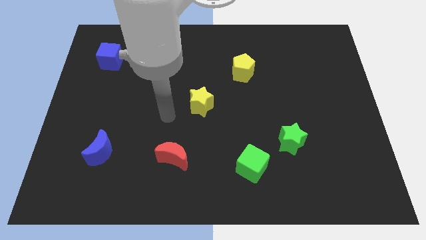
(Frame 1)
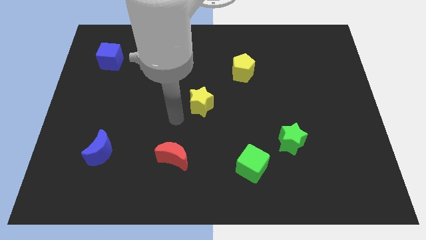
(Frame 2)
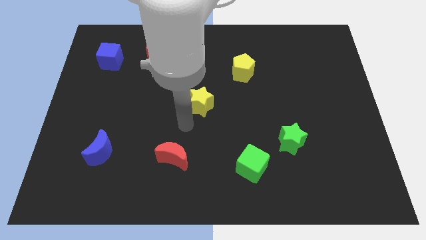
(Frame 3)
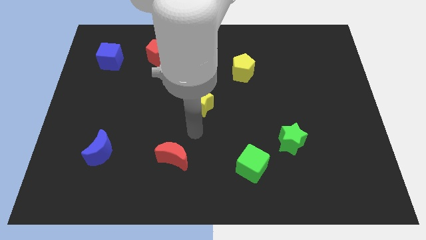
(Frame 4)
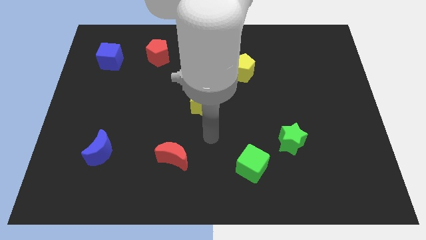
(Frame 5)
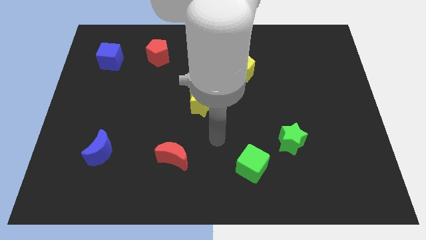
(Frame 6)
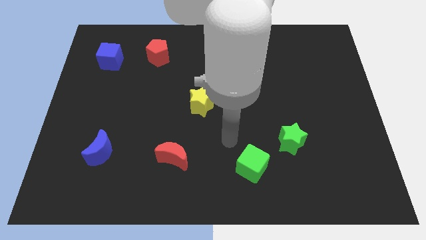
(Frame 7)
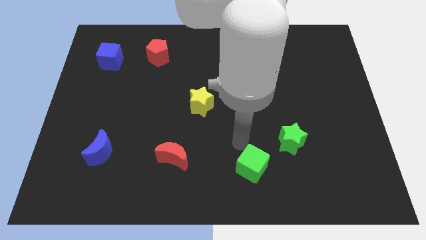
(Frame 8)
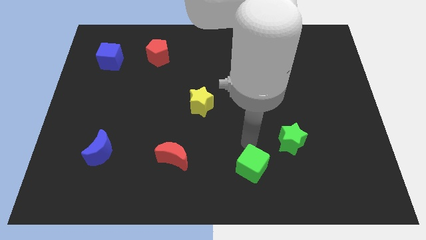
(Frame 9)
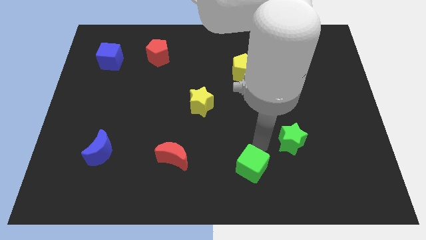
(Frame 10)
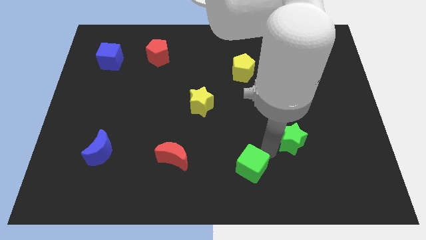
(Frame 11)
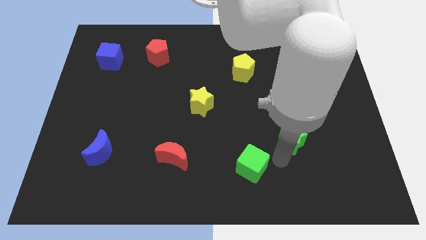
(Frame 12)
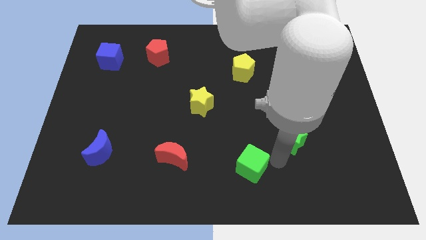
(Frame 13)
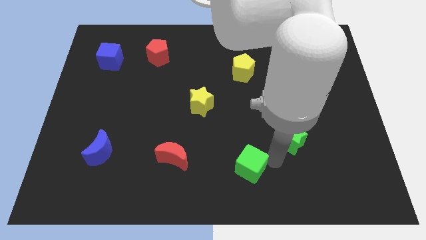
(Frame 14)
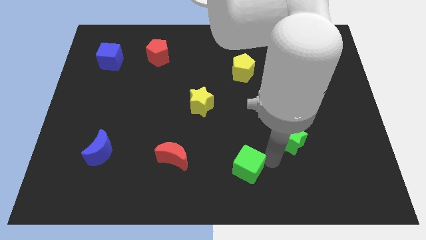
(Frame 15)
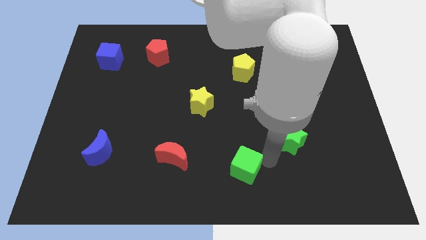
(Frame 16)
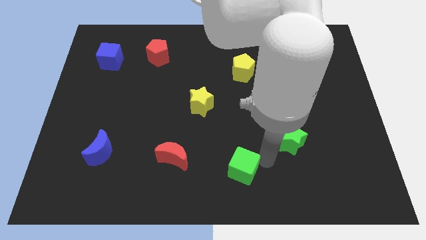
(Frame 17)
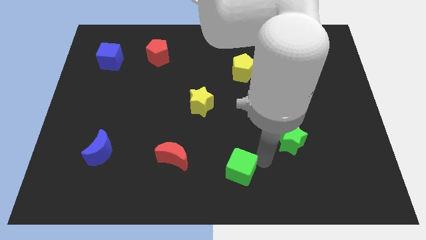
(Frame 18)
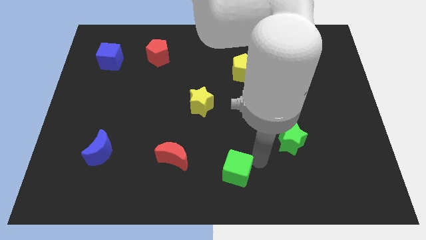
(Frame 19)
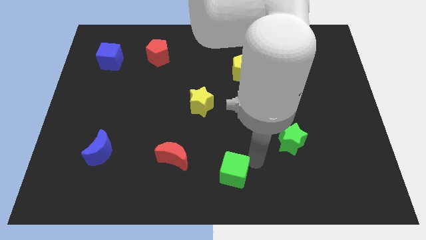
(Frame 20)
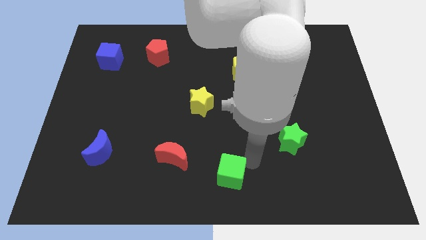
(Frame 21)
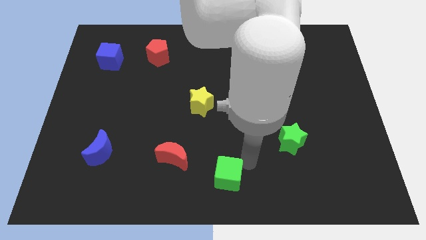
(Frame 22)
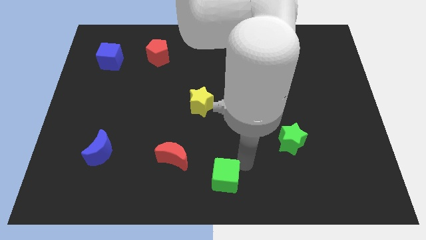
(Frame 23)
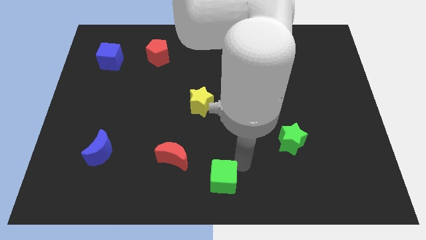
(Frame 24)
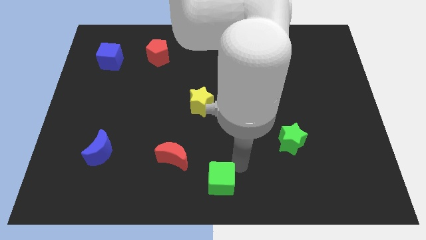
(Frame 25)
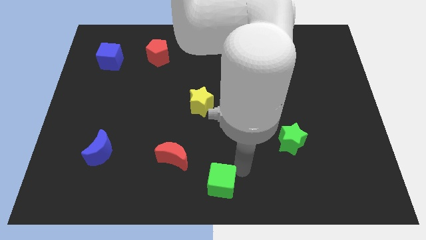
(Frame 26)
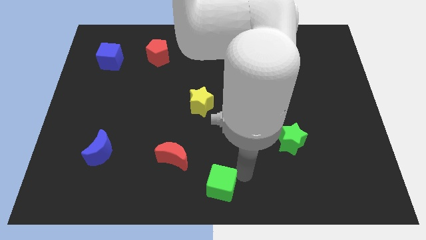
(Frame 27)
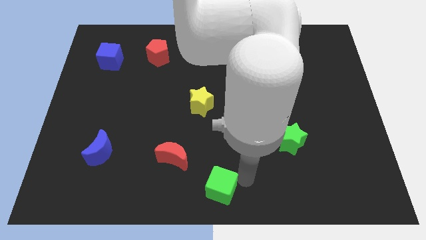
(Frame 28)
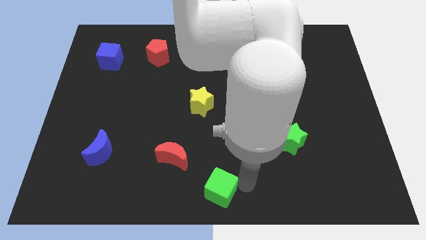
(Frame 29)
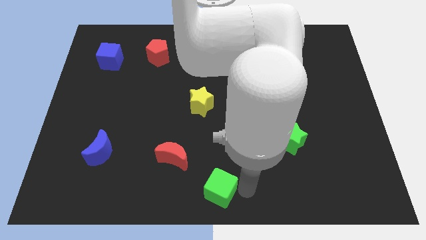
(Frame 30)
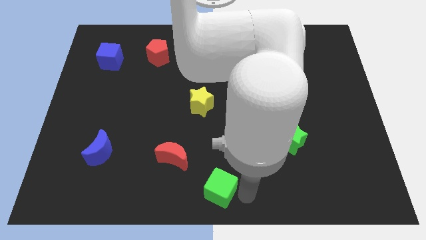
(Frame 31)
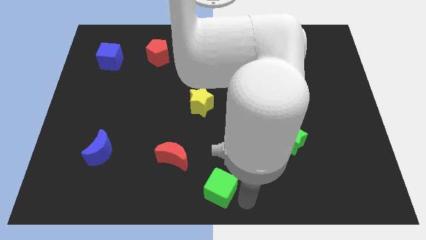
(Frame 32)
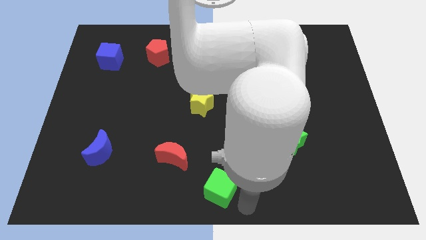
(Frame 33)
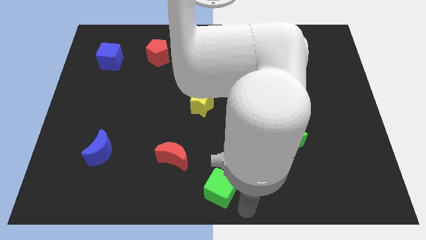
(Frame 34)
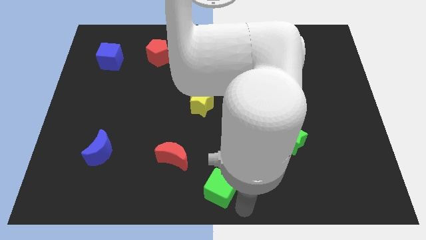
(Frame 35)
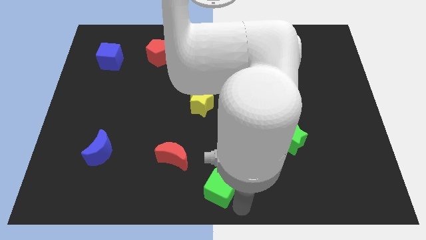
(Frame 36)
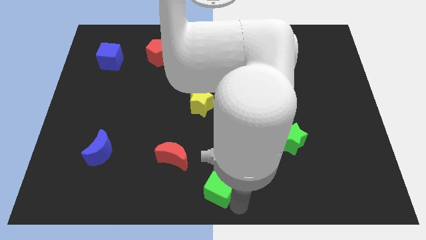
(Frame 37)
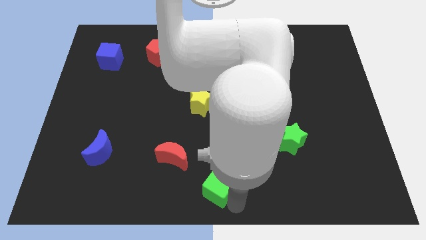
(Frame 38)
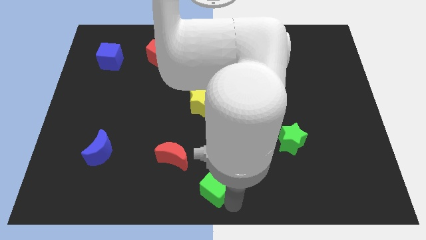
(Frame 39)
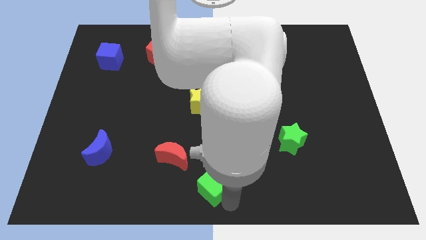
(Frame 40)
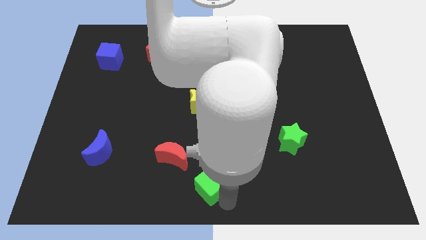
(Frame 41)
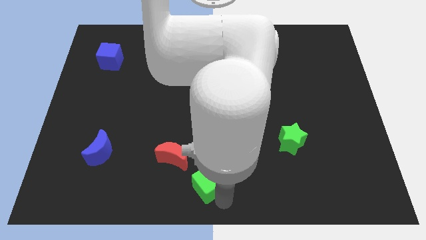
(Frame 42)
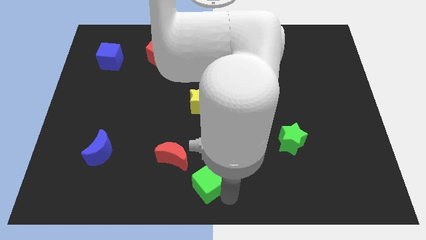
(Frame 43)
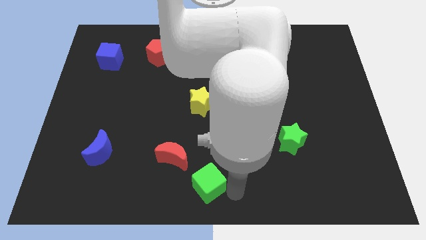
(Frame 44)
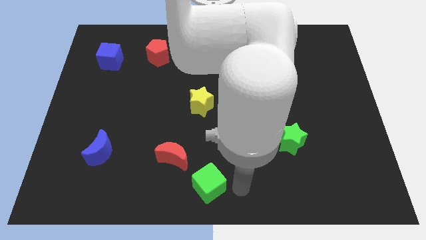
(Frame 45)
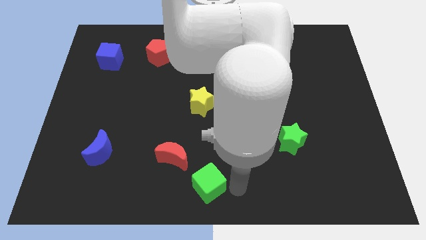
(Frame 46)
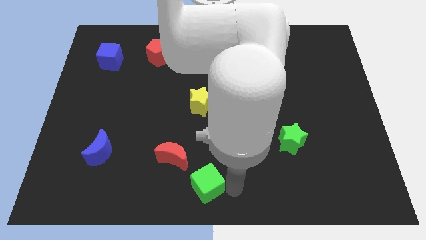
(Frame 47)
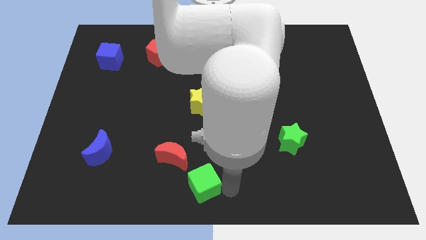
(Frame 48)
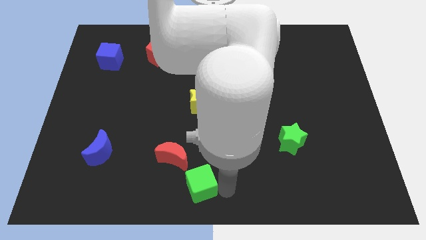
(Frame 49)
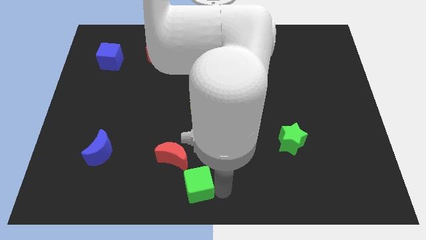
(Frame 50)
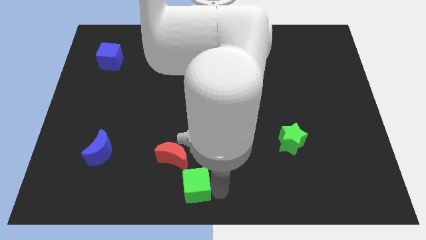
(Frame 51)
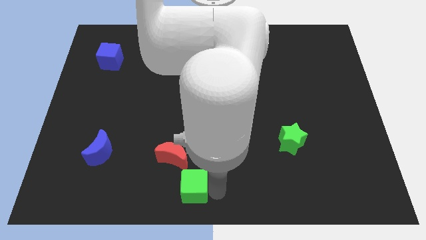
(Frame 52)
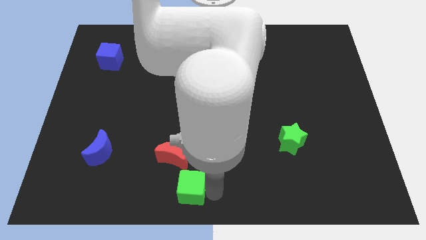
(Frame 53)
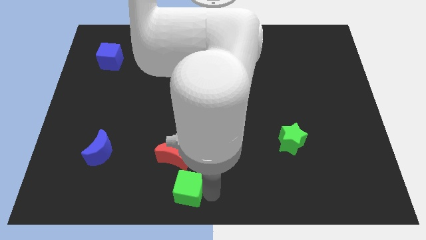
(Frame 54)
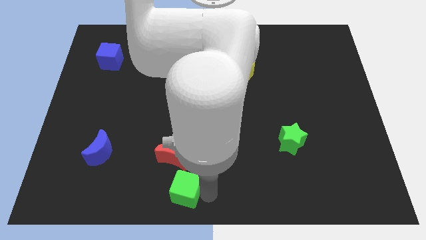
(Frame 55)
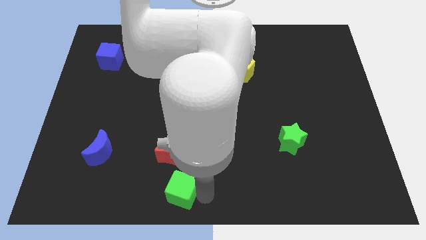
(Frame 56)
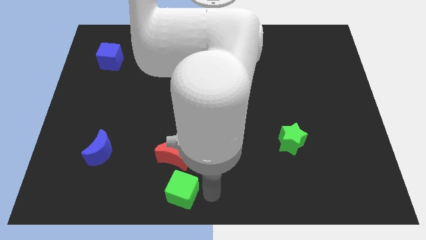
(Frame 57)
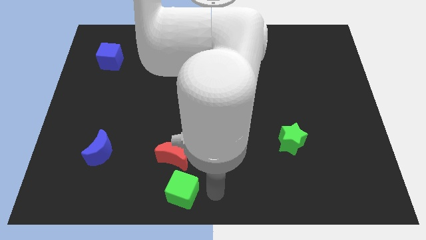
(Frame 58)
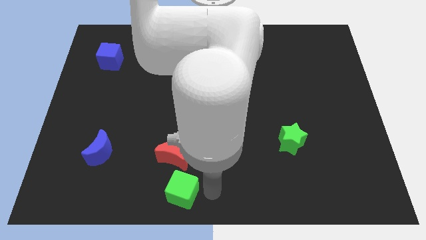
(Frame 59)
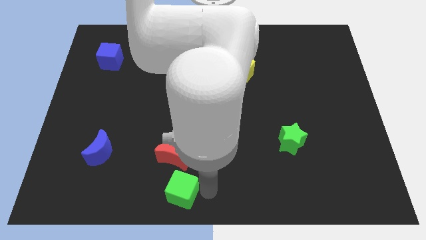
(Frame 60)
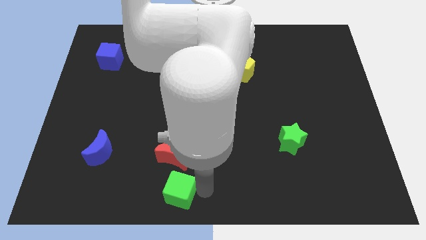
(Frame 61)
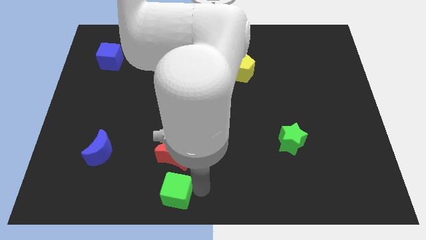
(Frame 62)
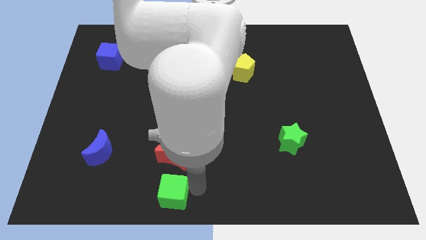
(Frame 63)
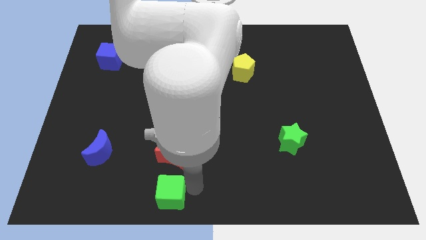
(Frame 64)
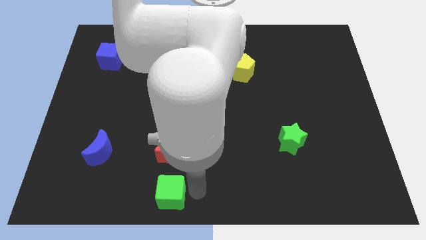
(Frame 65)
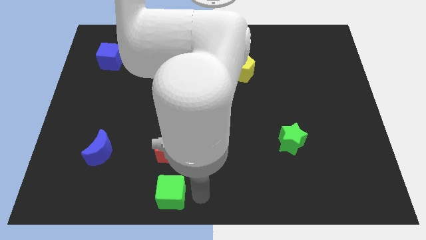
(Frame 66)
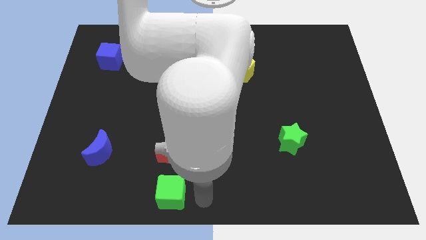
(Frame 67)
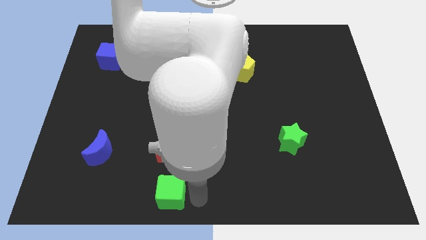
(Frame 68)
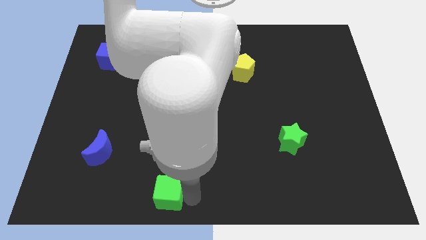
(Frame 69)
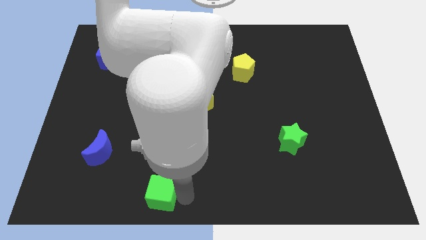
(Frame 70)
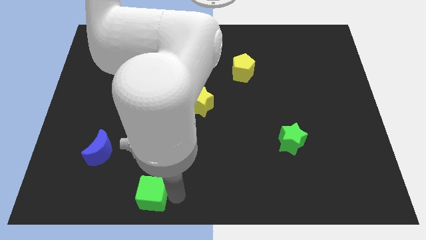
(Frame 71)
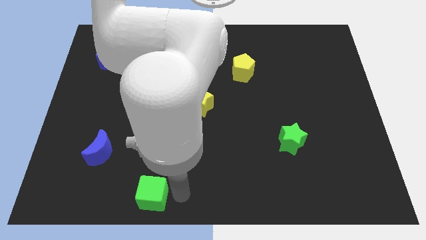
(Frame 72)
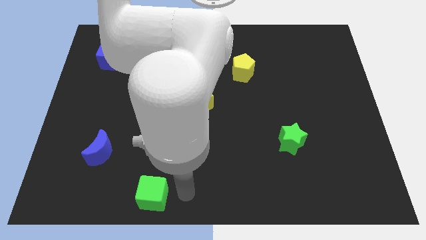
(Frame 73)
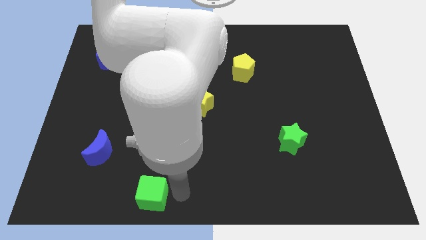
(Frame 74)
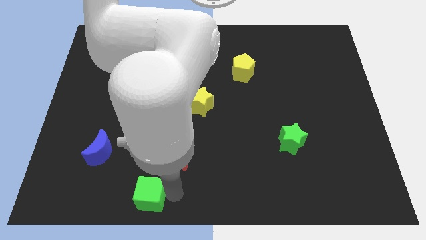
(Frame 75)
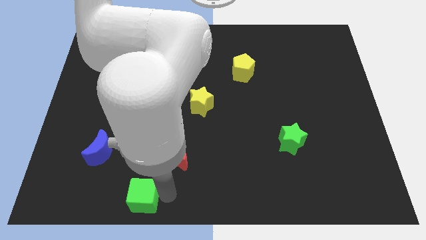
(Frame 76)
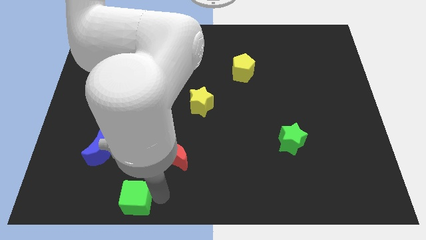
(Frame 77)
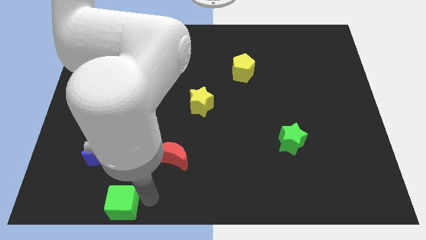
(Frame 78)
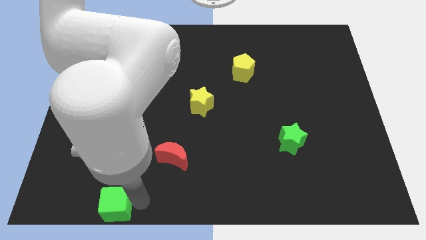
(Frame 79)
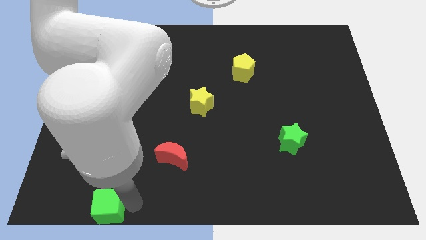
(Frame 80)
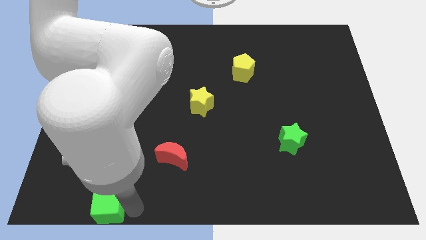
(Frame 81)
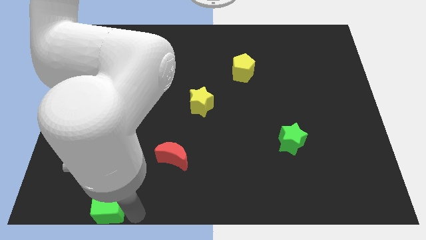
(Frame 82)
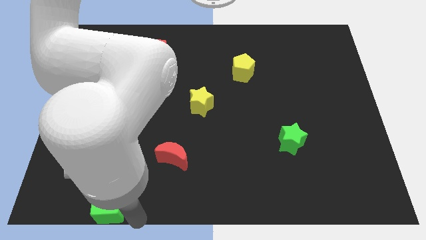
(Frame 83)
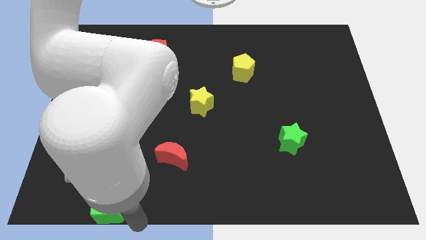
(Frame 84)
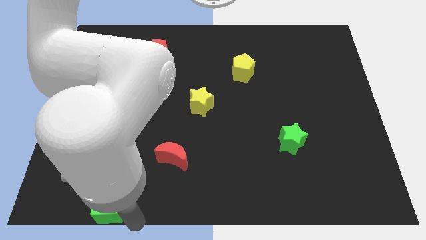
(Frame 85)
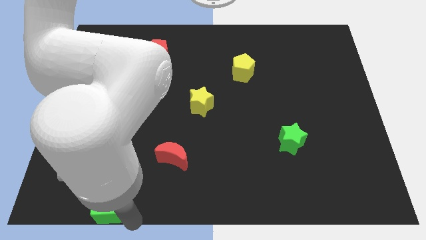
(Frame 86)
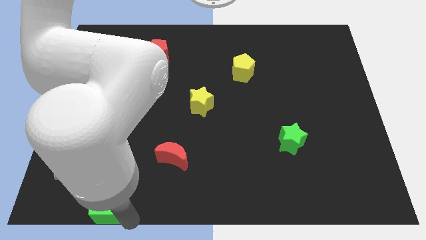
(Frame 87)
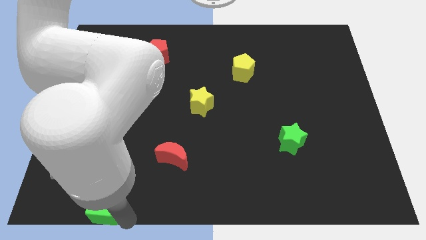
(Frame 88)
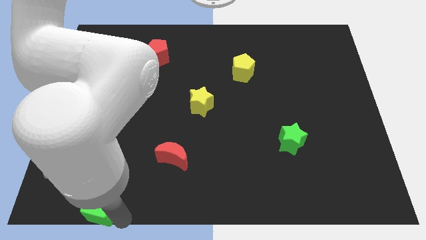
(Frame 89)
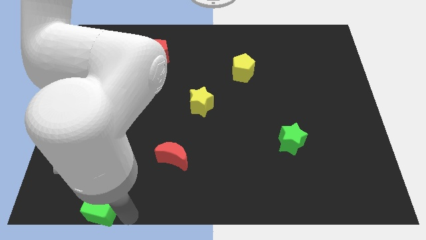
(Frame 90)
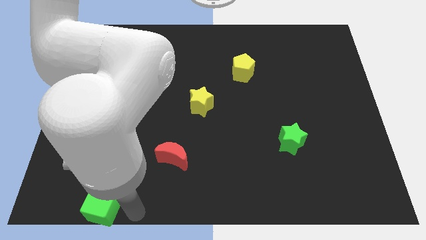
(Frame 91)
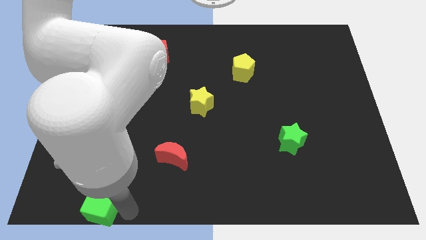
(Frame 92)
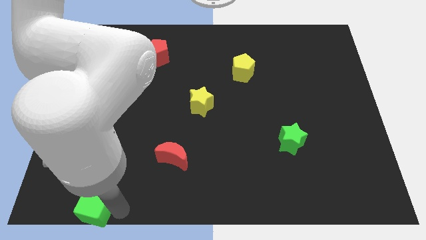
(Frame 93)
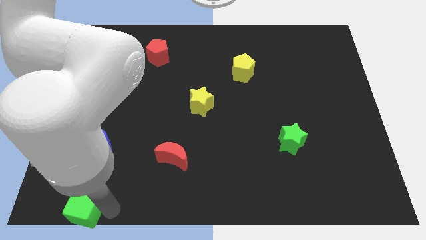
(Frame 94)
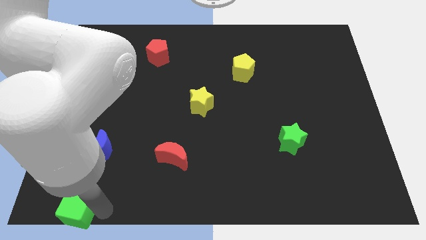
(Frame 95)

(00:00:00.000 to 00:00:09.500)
slide the green cube to the bottom left
